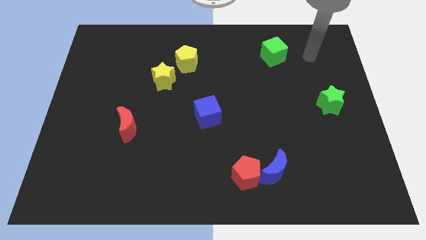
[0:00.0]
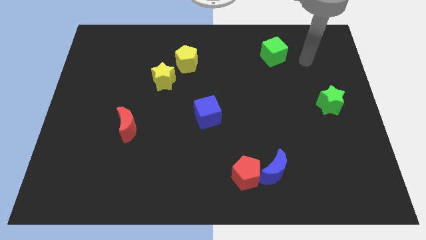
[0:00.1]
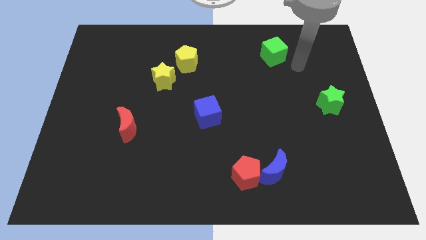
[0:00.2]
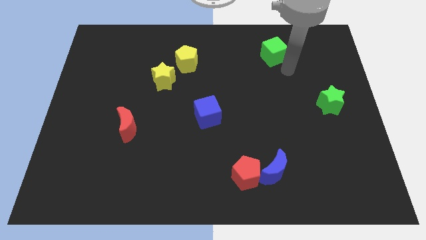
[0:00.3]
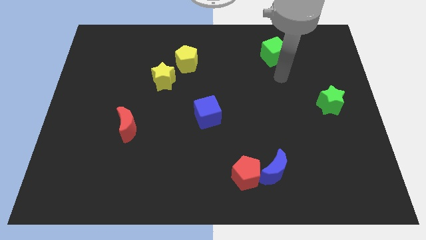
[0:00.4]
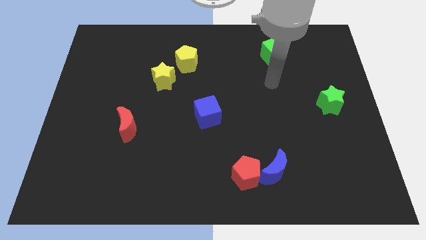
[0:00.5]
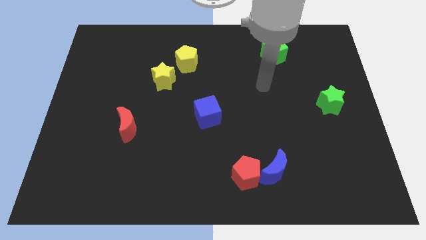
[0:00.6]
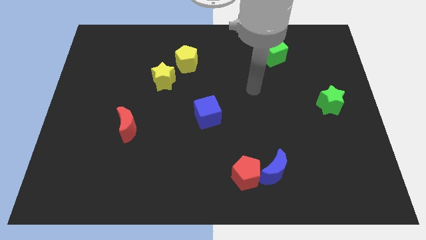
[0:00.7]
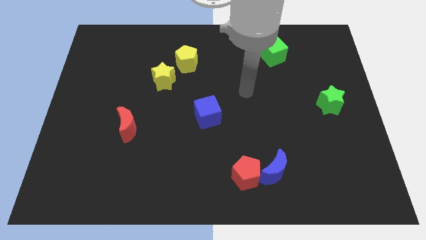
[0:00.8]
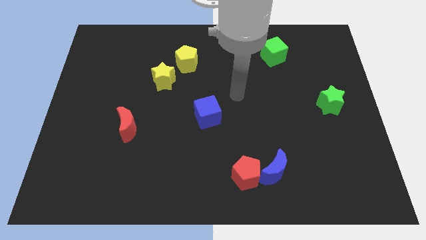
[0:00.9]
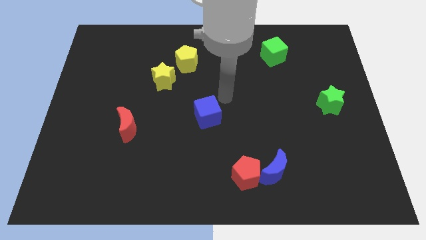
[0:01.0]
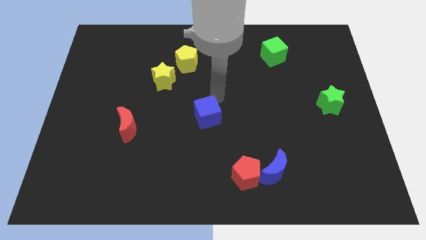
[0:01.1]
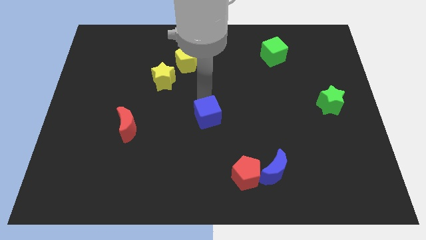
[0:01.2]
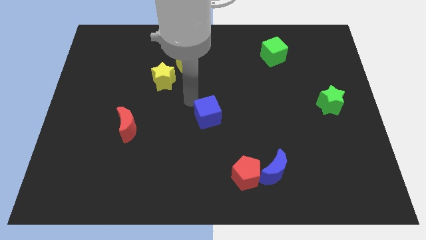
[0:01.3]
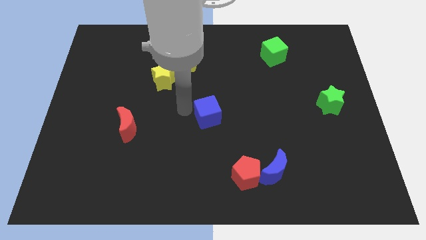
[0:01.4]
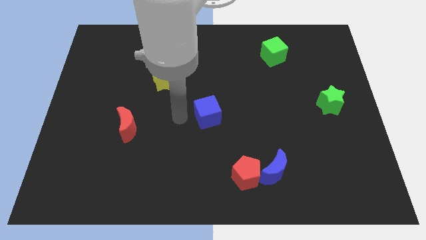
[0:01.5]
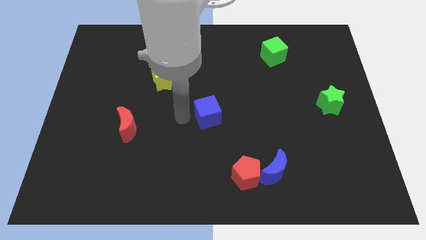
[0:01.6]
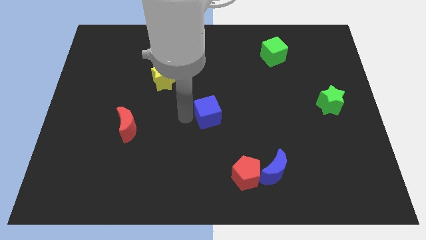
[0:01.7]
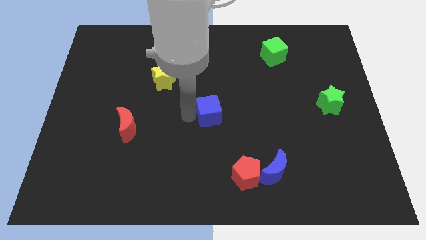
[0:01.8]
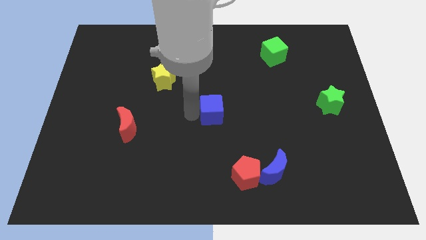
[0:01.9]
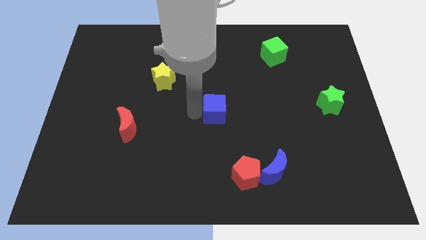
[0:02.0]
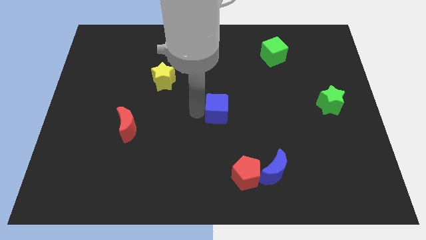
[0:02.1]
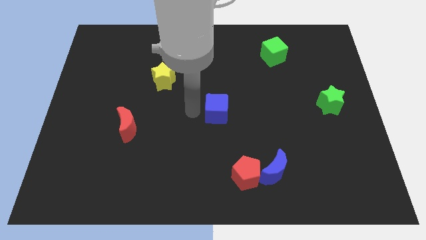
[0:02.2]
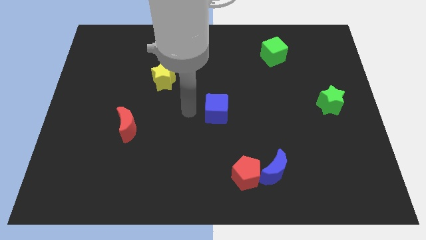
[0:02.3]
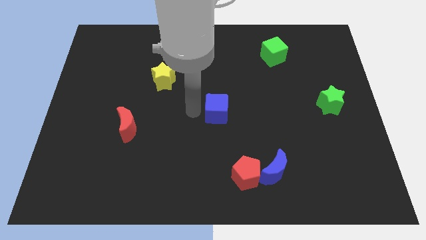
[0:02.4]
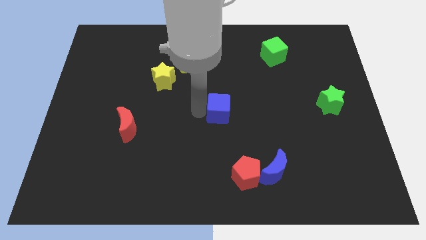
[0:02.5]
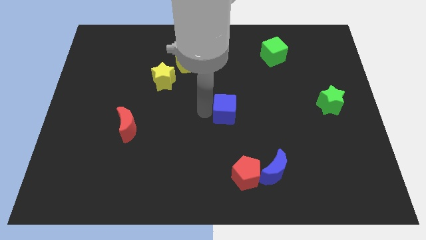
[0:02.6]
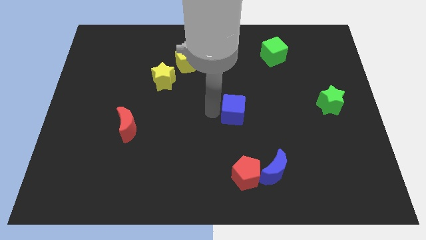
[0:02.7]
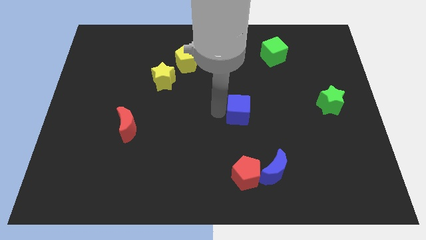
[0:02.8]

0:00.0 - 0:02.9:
slide the blue cube a little bit right

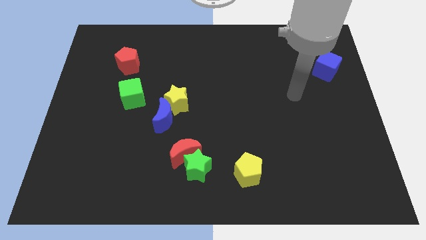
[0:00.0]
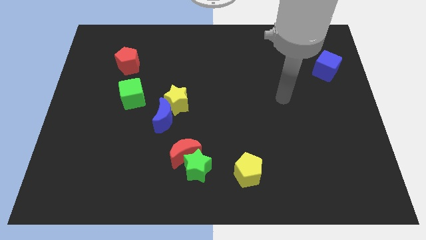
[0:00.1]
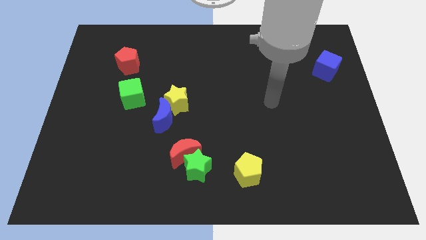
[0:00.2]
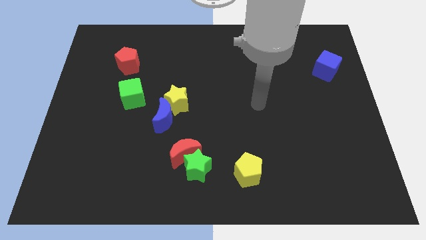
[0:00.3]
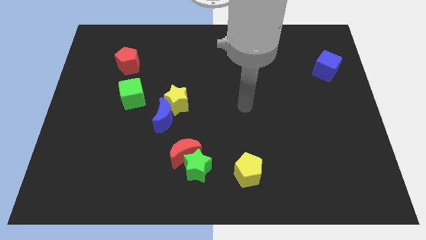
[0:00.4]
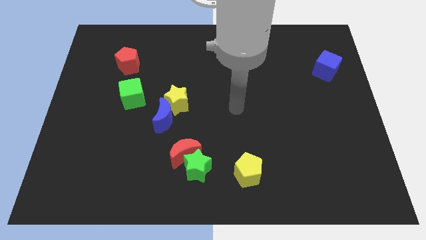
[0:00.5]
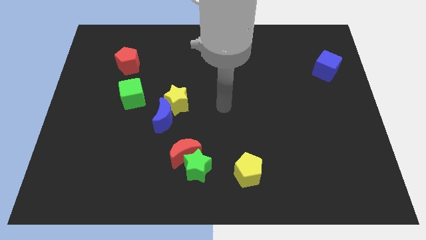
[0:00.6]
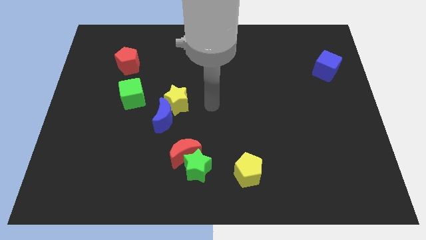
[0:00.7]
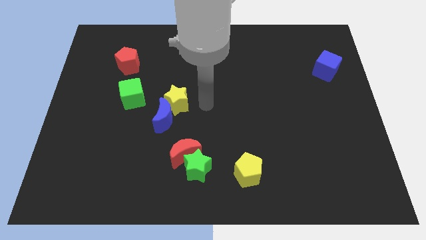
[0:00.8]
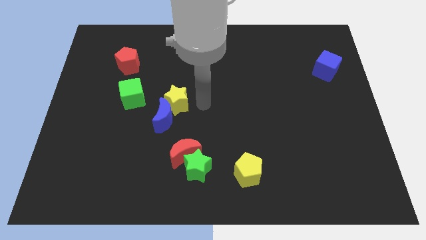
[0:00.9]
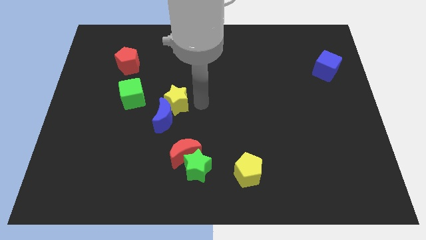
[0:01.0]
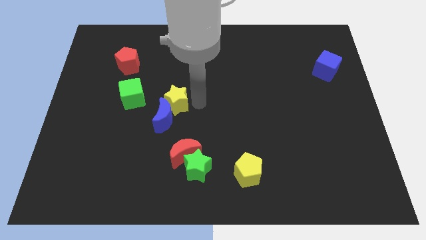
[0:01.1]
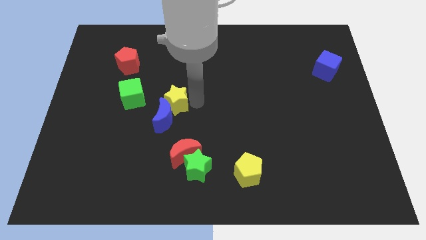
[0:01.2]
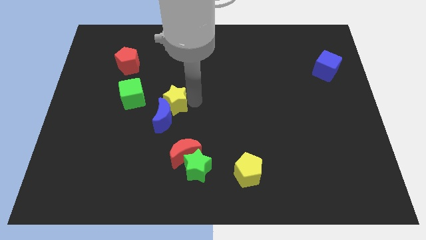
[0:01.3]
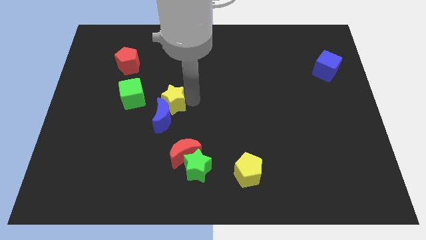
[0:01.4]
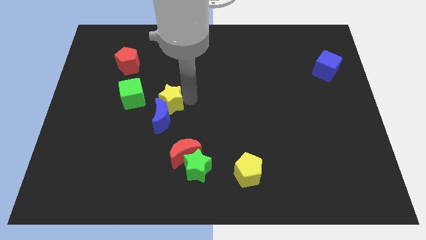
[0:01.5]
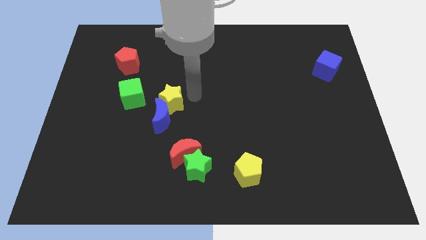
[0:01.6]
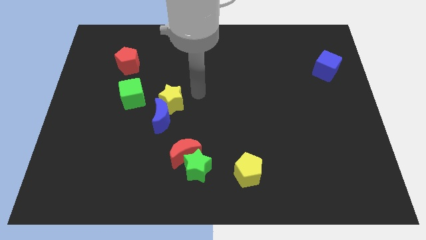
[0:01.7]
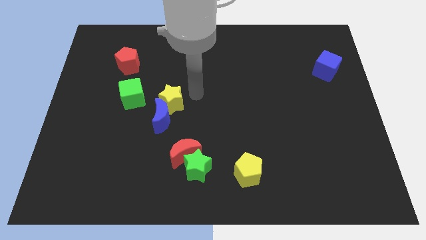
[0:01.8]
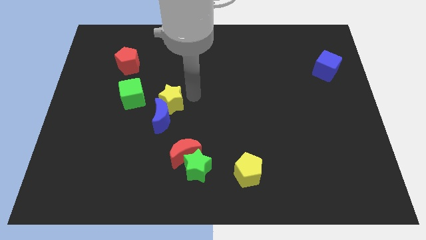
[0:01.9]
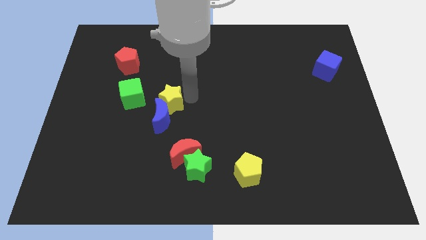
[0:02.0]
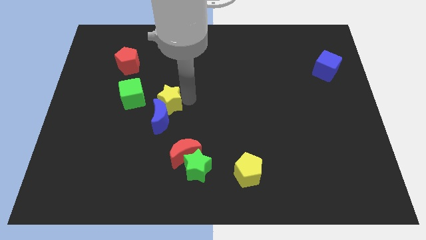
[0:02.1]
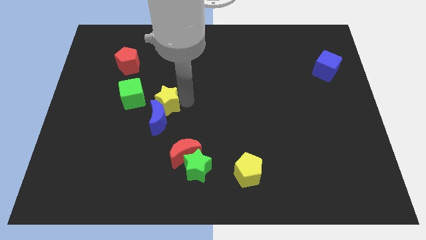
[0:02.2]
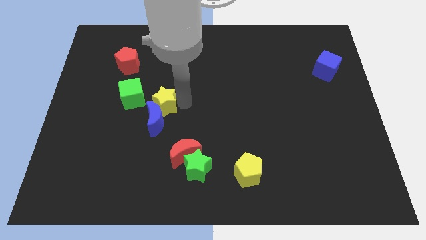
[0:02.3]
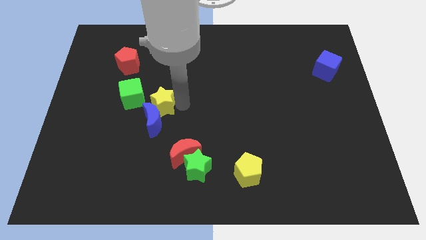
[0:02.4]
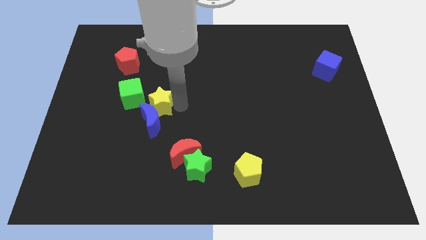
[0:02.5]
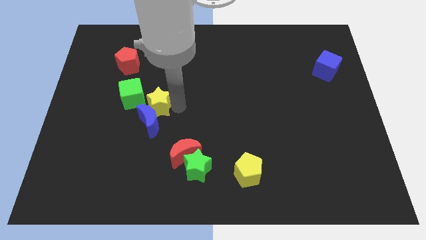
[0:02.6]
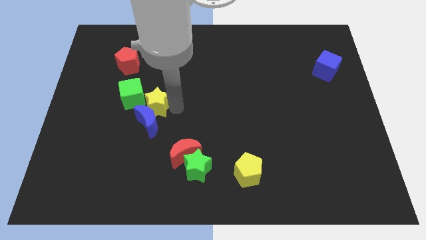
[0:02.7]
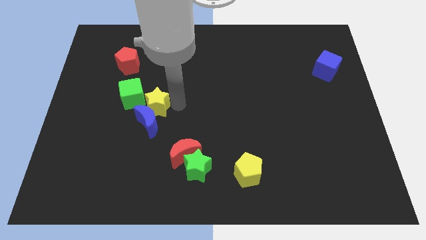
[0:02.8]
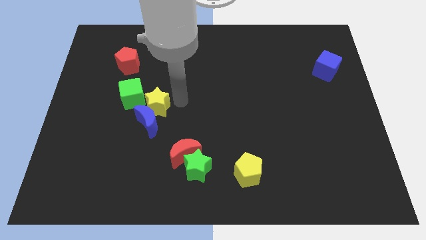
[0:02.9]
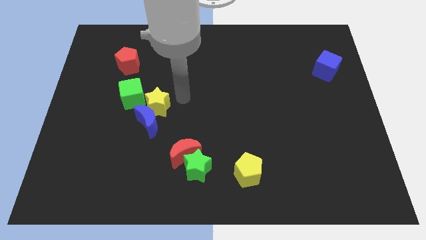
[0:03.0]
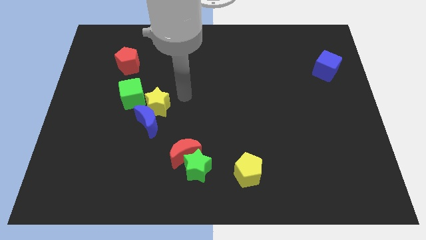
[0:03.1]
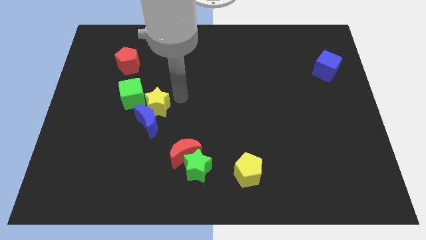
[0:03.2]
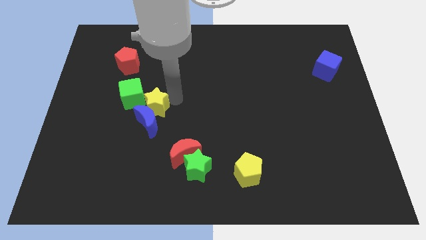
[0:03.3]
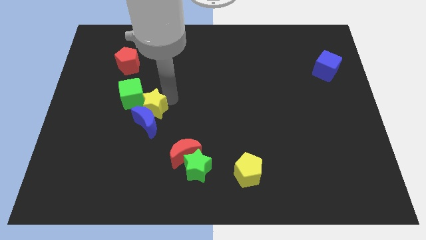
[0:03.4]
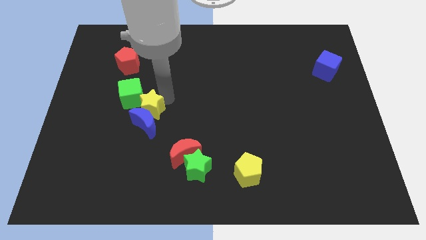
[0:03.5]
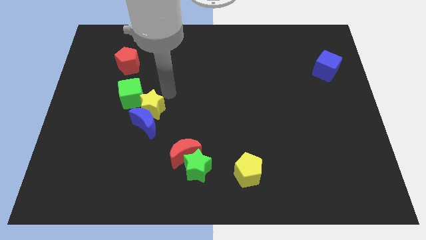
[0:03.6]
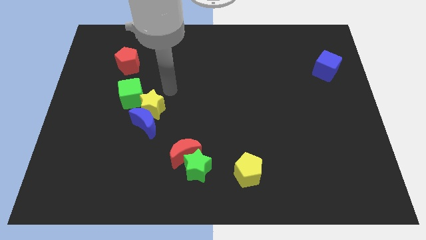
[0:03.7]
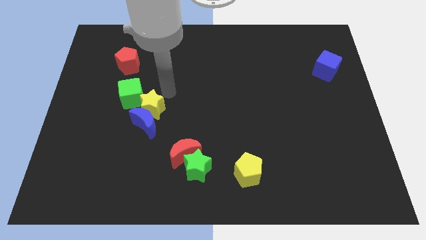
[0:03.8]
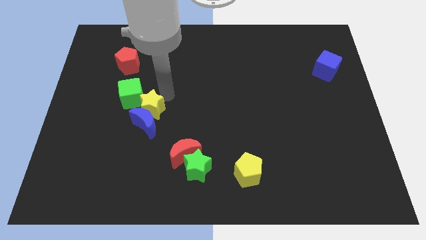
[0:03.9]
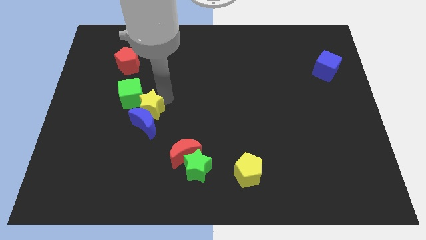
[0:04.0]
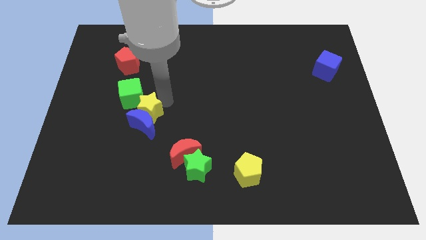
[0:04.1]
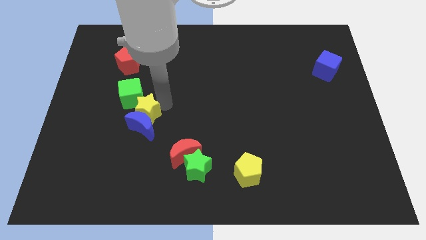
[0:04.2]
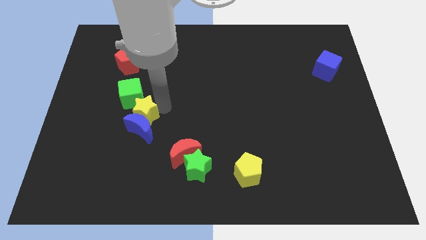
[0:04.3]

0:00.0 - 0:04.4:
move the yellow star diagonally down and to the left slightly

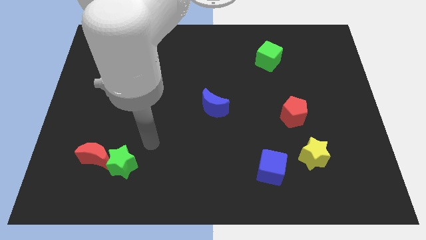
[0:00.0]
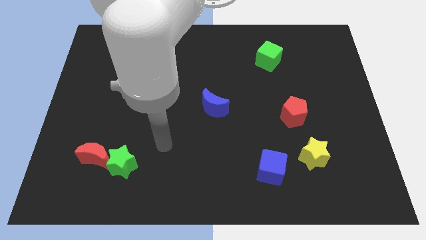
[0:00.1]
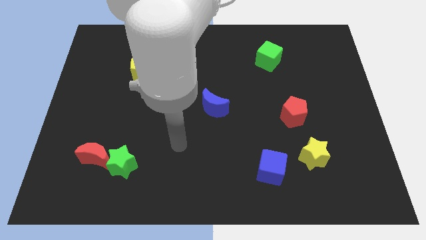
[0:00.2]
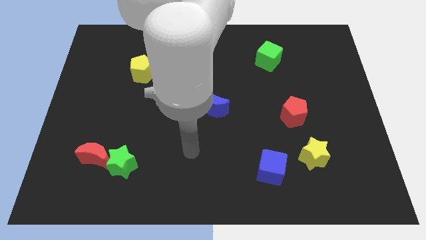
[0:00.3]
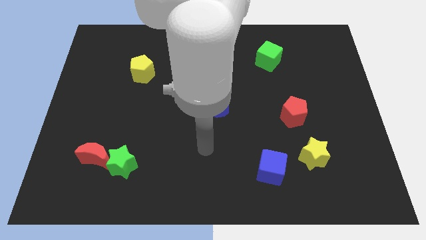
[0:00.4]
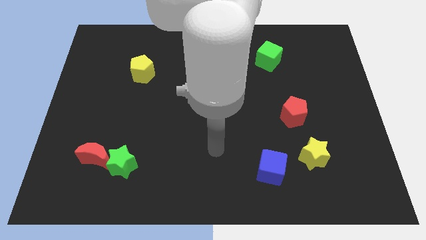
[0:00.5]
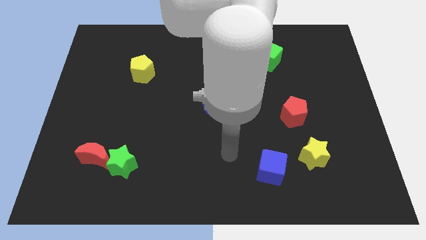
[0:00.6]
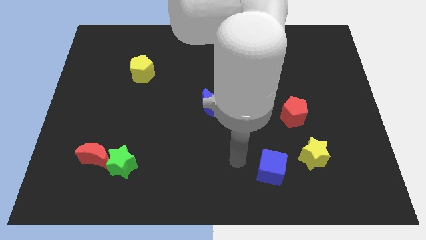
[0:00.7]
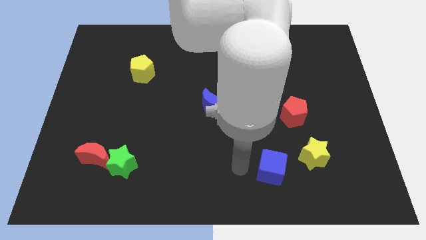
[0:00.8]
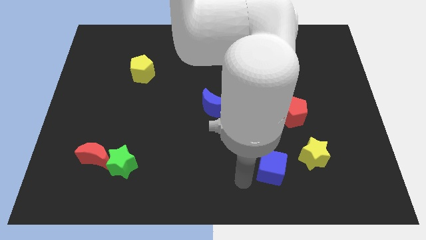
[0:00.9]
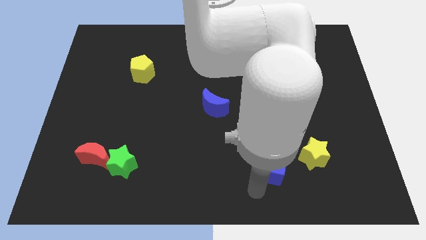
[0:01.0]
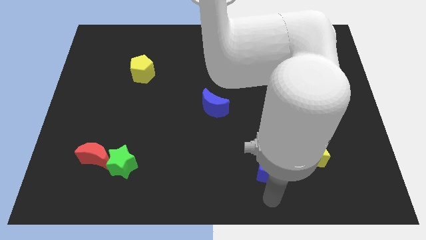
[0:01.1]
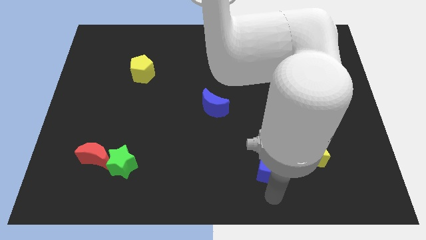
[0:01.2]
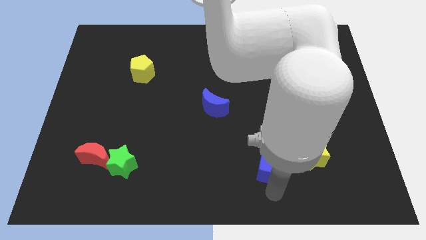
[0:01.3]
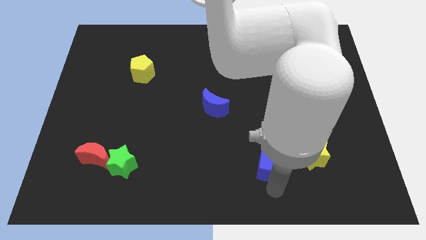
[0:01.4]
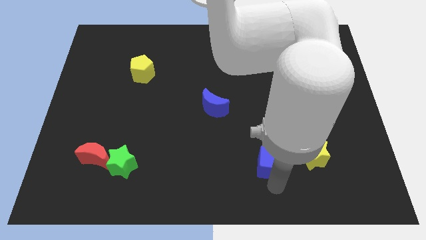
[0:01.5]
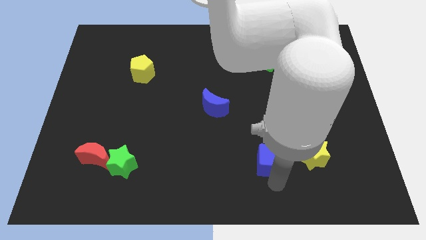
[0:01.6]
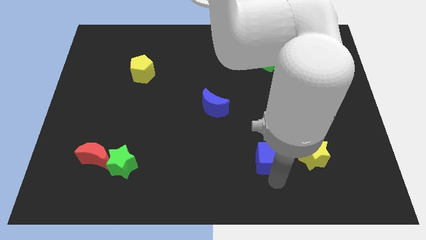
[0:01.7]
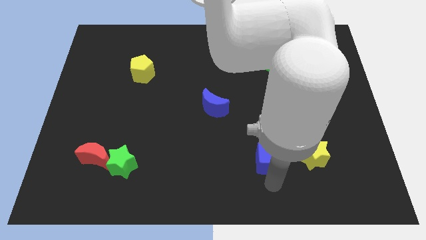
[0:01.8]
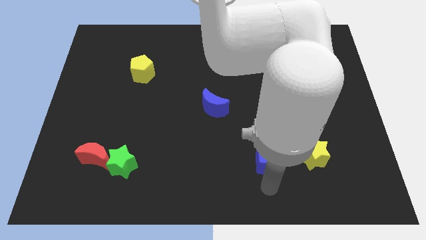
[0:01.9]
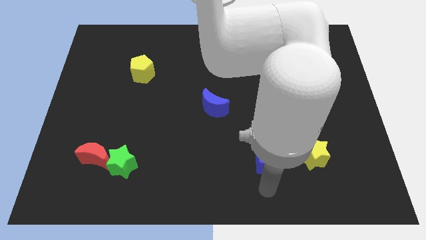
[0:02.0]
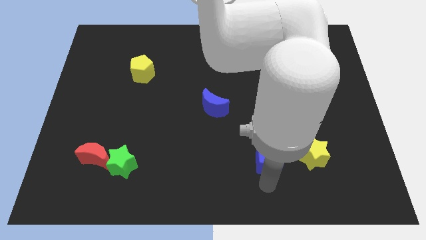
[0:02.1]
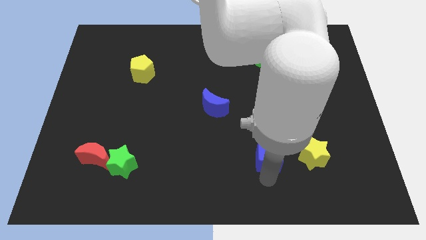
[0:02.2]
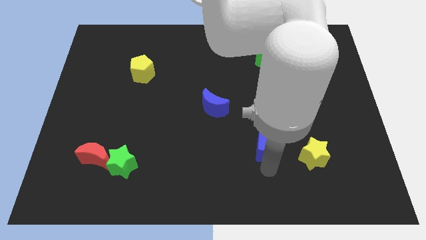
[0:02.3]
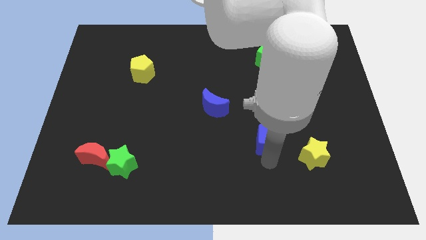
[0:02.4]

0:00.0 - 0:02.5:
slide the blue cube upwards somewhat
